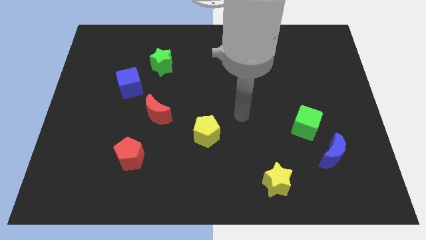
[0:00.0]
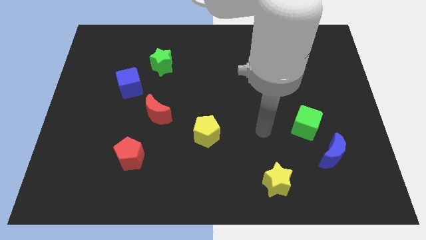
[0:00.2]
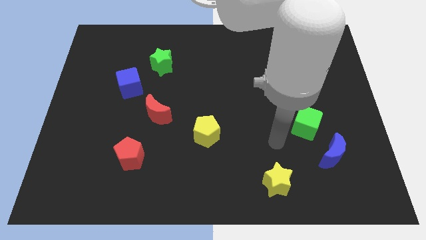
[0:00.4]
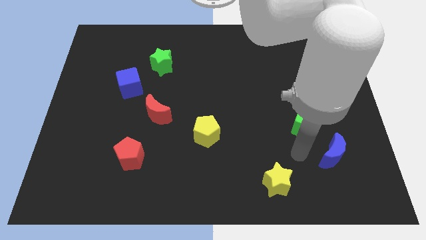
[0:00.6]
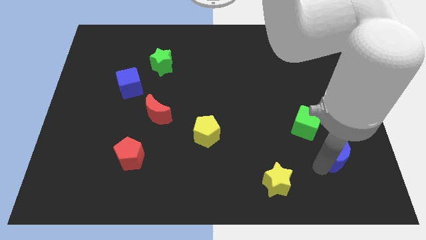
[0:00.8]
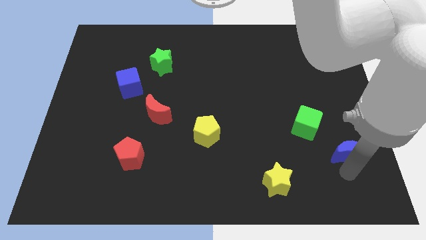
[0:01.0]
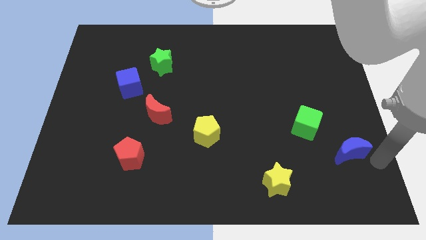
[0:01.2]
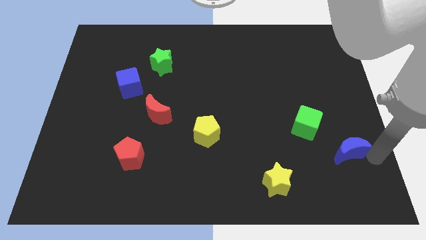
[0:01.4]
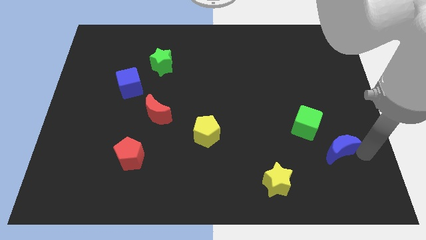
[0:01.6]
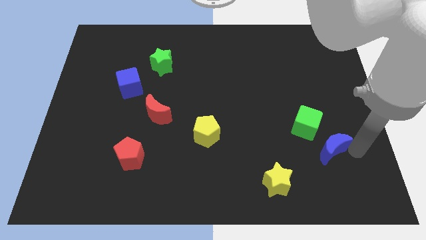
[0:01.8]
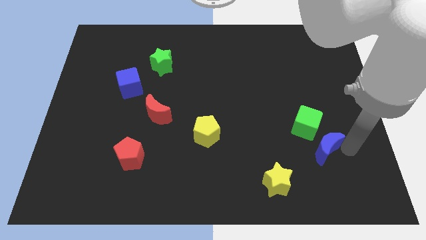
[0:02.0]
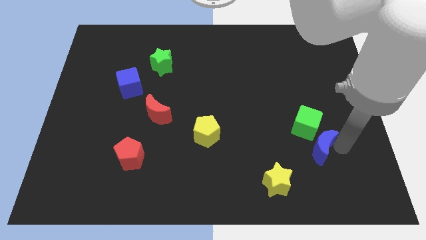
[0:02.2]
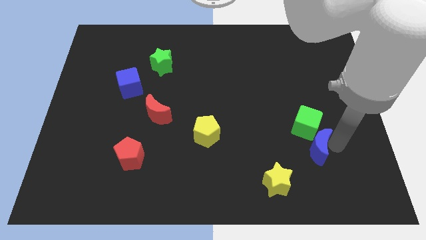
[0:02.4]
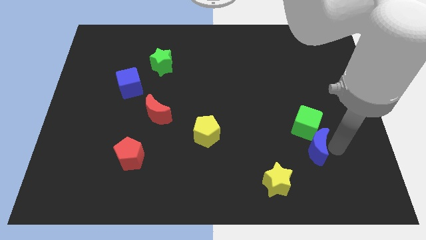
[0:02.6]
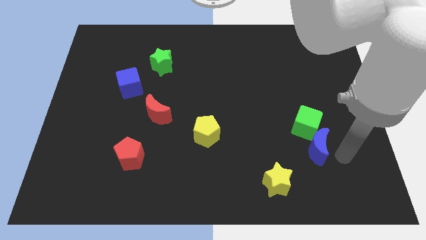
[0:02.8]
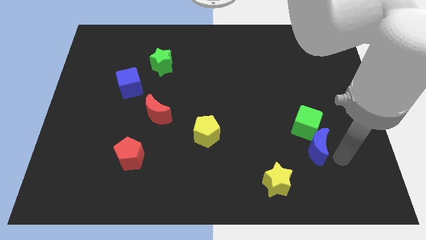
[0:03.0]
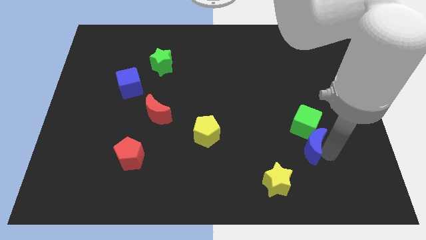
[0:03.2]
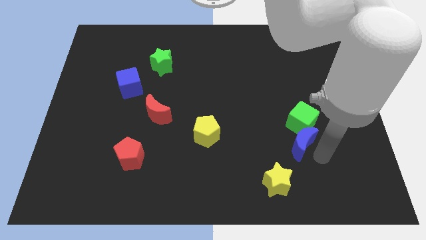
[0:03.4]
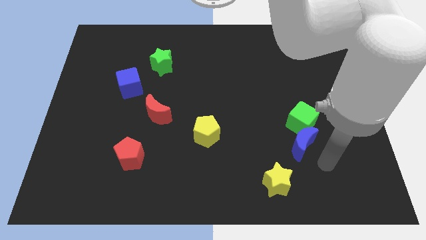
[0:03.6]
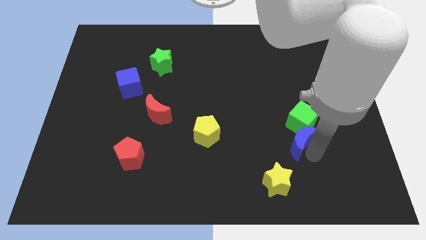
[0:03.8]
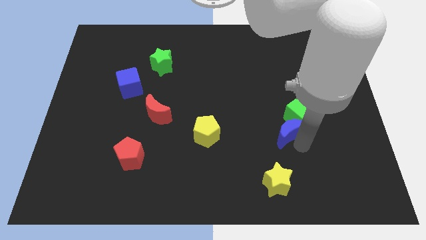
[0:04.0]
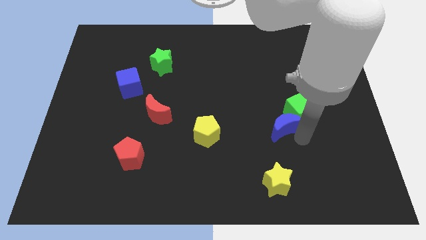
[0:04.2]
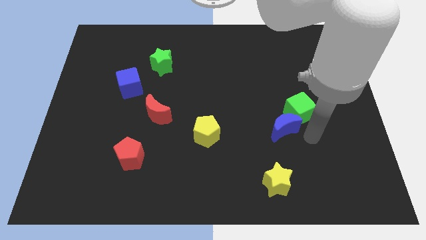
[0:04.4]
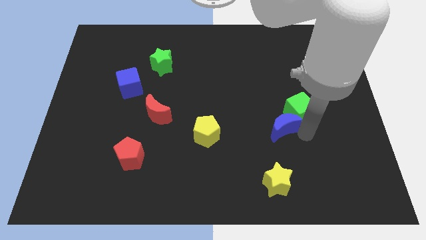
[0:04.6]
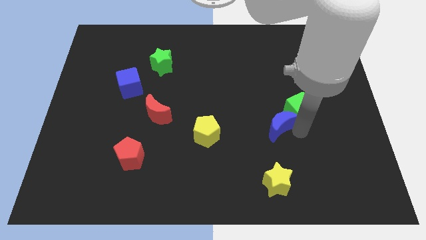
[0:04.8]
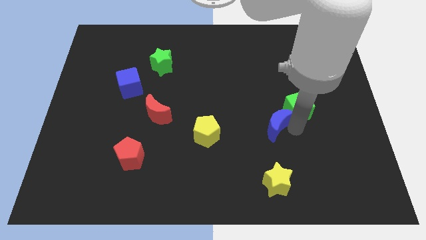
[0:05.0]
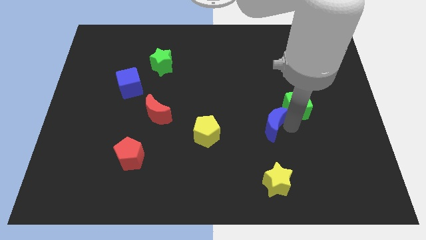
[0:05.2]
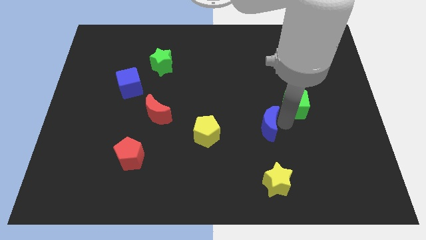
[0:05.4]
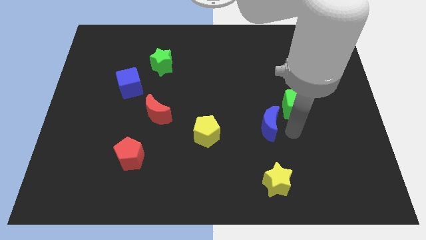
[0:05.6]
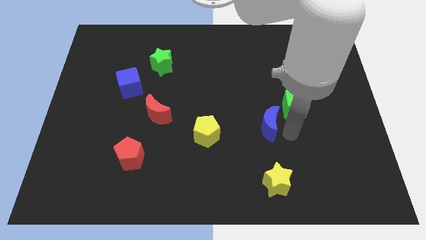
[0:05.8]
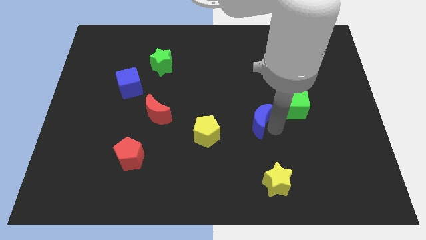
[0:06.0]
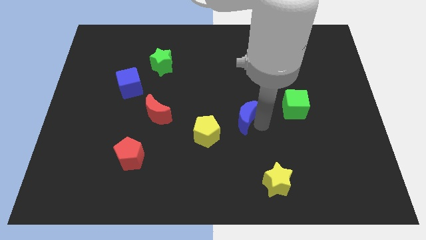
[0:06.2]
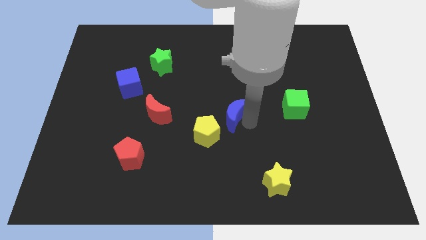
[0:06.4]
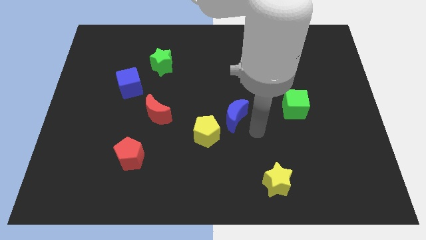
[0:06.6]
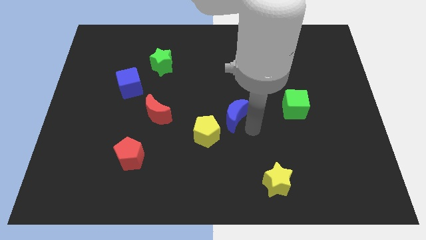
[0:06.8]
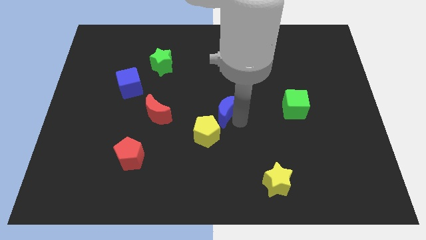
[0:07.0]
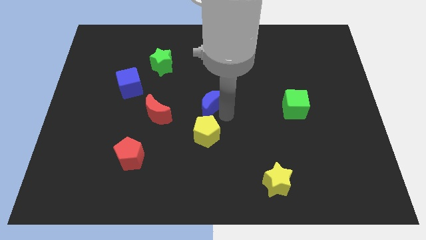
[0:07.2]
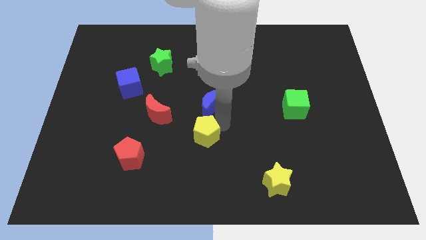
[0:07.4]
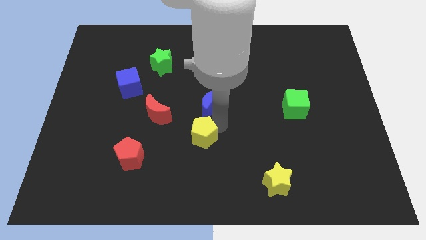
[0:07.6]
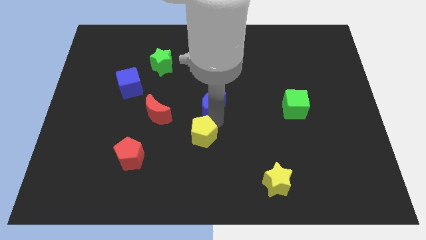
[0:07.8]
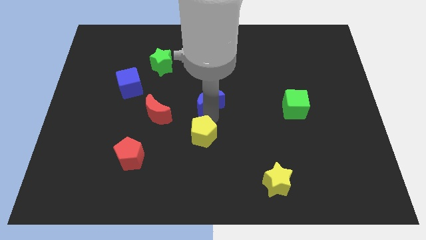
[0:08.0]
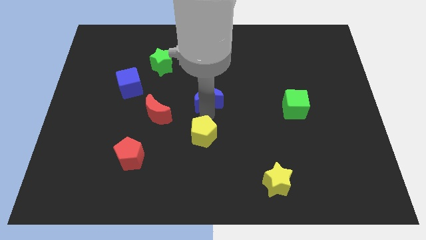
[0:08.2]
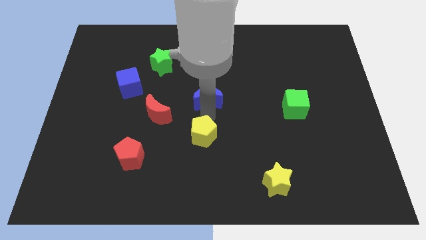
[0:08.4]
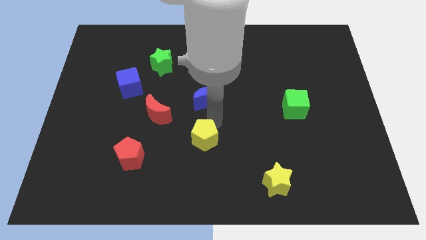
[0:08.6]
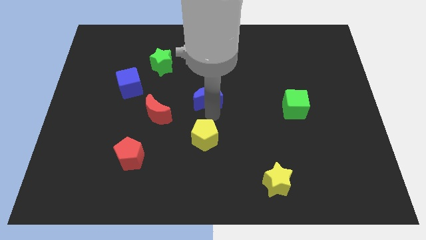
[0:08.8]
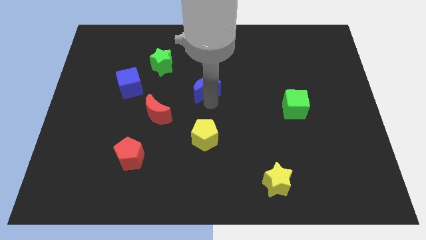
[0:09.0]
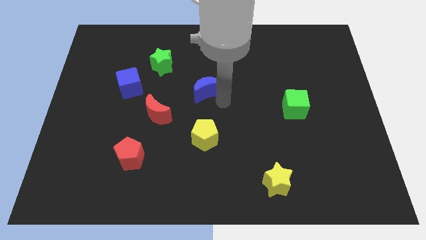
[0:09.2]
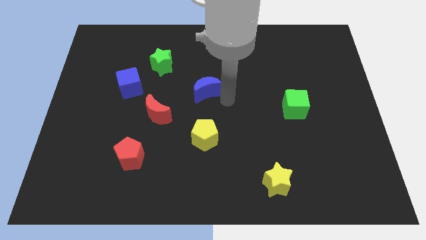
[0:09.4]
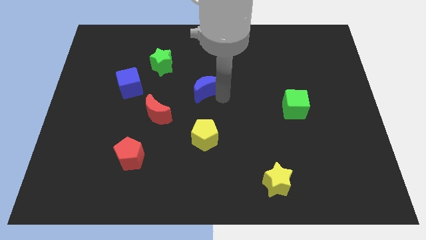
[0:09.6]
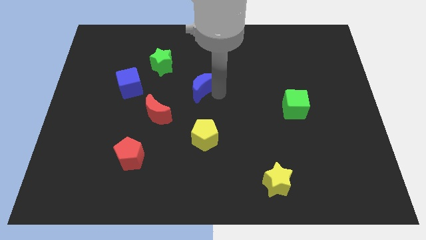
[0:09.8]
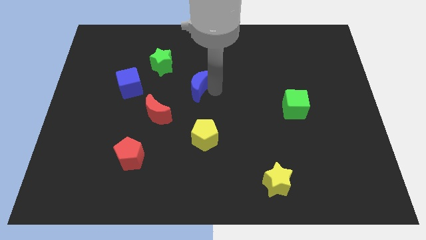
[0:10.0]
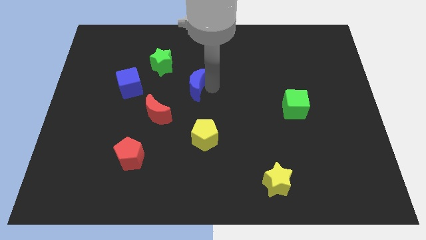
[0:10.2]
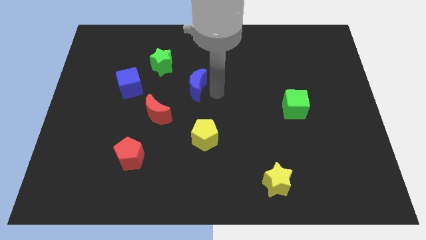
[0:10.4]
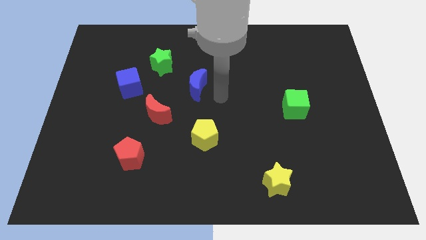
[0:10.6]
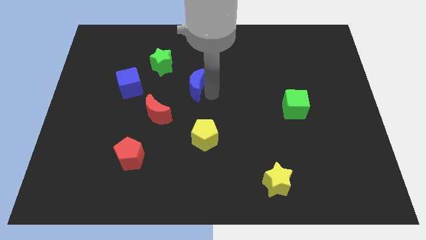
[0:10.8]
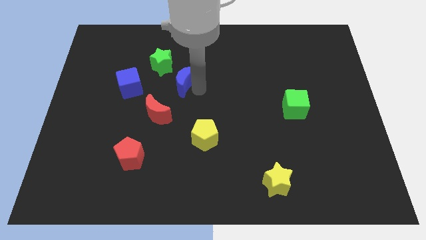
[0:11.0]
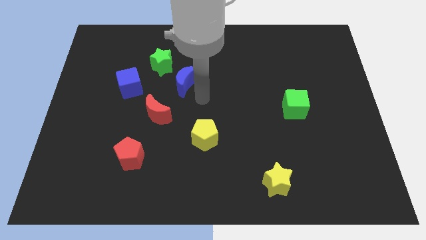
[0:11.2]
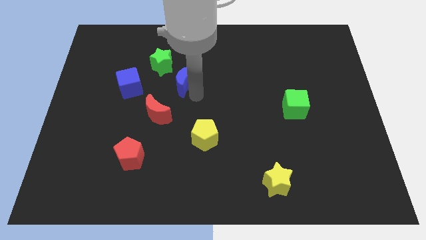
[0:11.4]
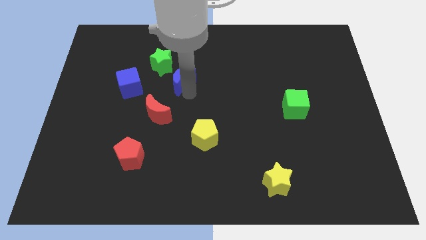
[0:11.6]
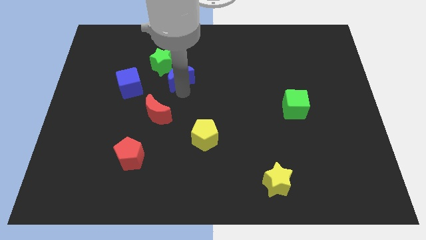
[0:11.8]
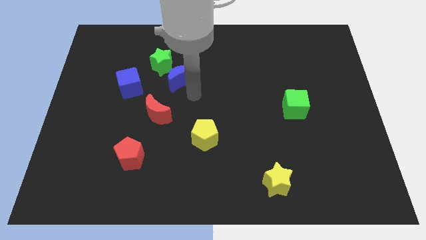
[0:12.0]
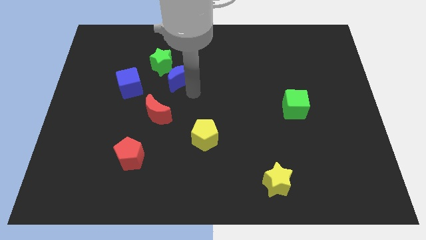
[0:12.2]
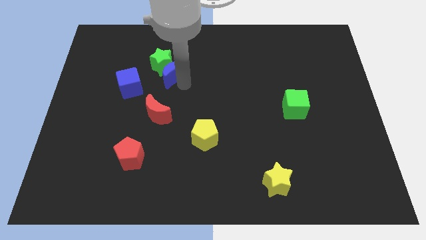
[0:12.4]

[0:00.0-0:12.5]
slide the blue moon to the green star

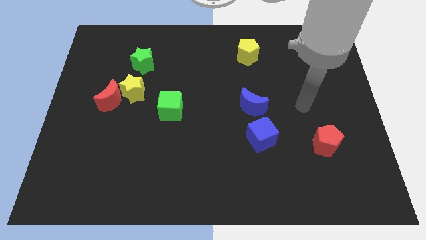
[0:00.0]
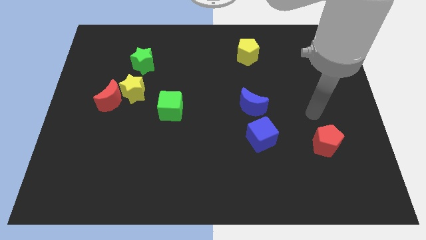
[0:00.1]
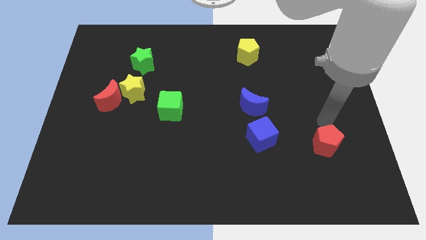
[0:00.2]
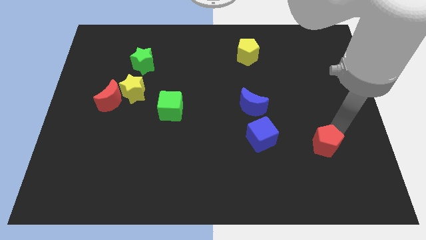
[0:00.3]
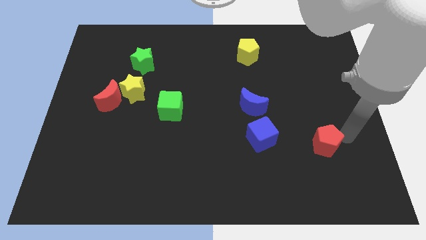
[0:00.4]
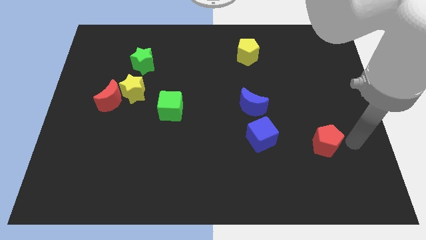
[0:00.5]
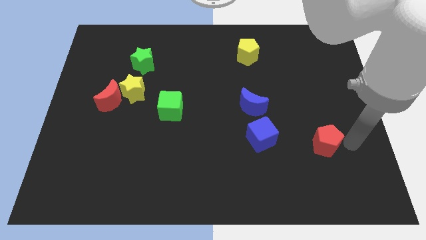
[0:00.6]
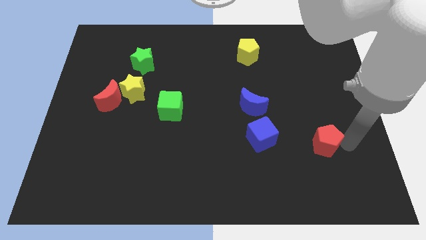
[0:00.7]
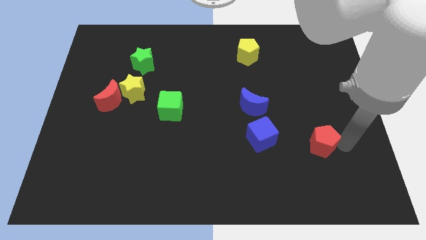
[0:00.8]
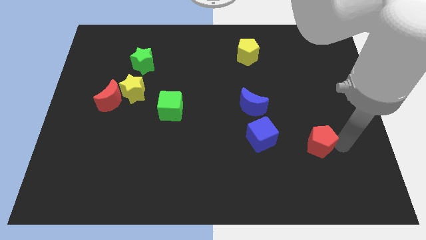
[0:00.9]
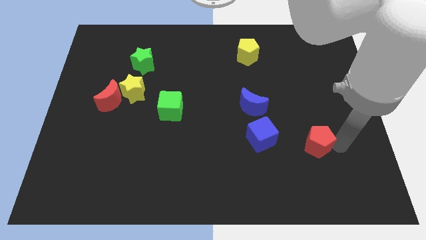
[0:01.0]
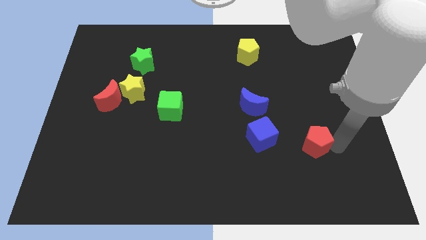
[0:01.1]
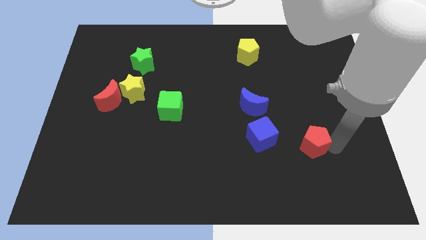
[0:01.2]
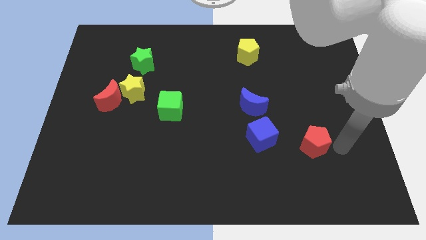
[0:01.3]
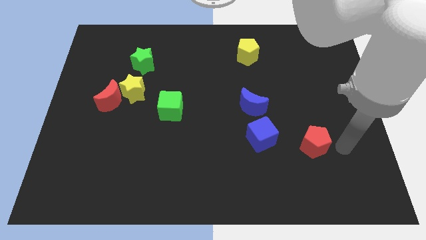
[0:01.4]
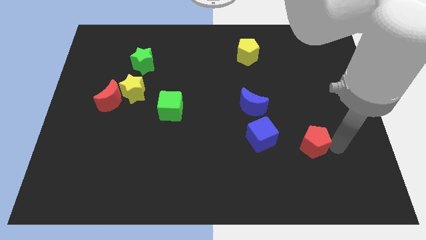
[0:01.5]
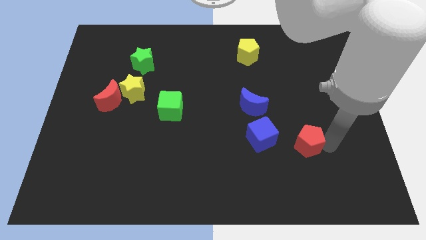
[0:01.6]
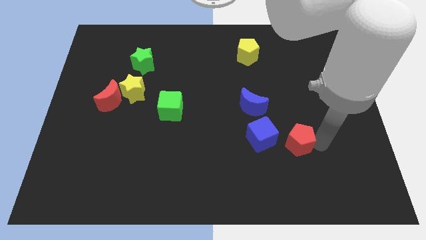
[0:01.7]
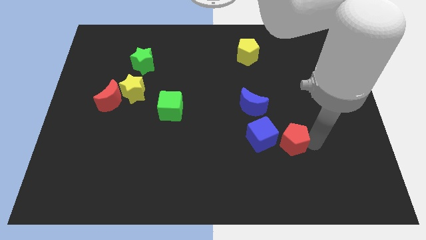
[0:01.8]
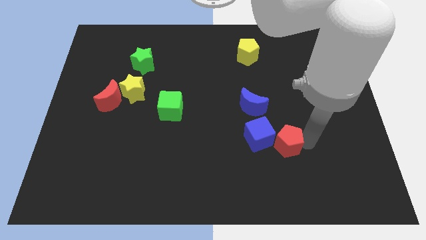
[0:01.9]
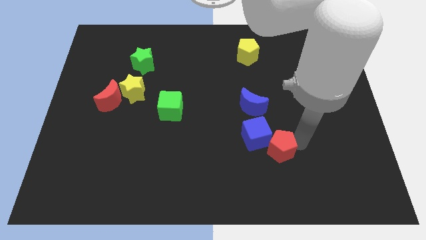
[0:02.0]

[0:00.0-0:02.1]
push the red pentagon next to the blue cube
